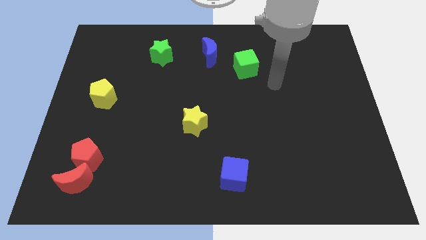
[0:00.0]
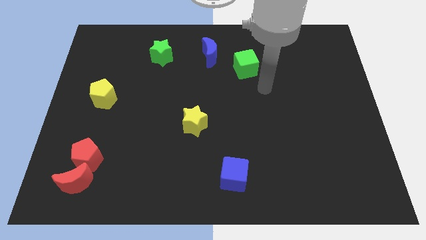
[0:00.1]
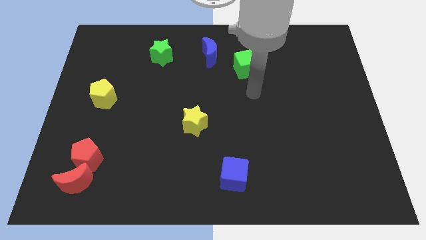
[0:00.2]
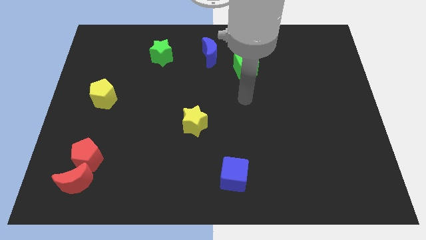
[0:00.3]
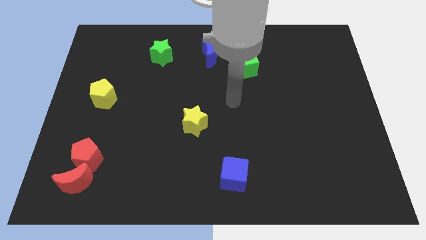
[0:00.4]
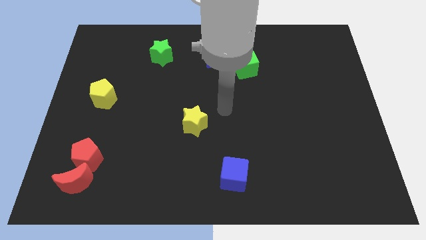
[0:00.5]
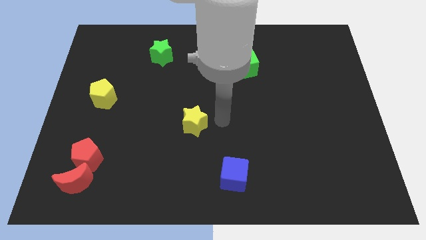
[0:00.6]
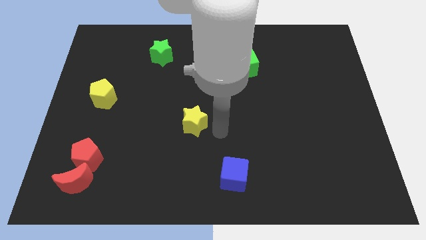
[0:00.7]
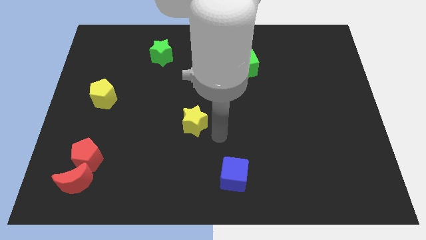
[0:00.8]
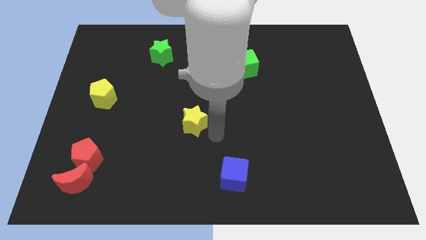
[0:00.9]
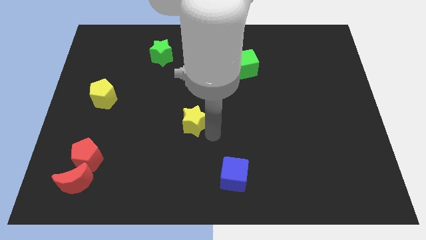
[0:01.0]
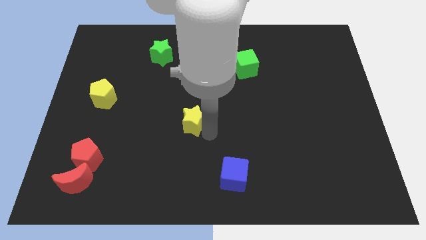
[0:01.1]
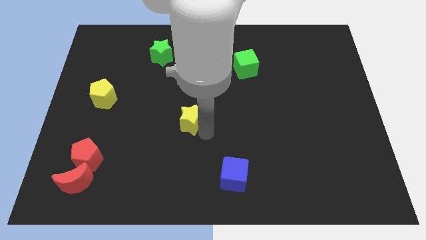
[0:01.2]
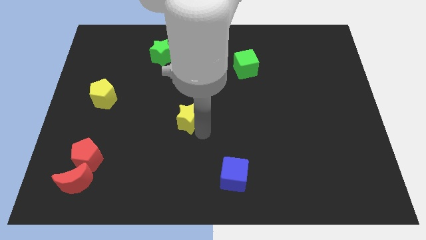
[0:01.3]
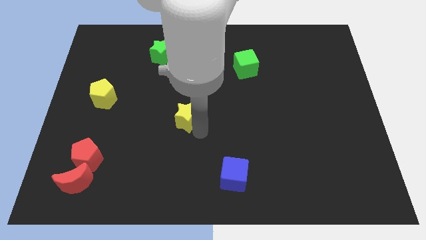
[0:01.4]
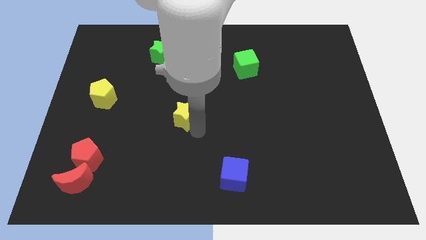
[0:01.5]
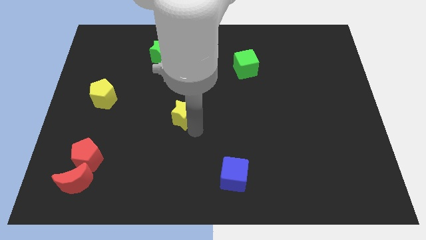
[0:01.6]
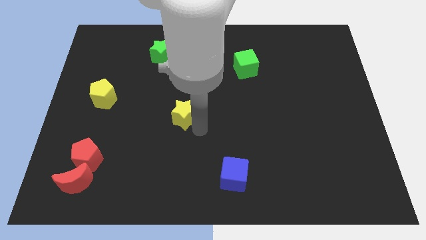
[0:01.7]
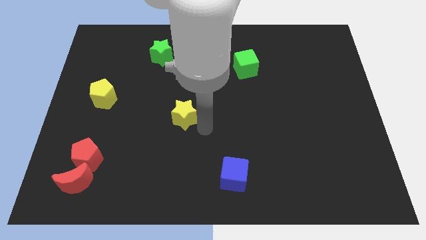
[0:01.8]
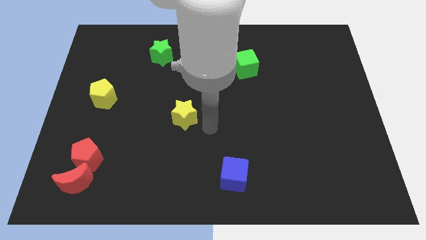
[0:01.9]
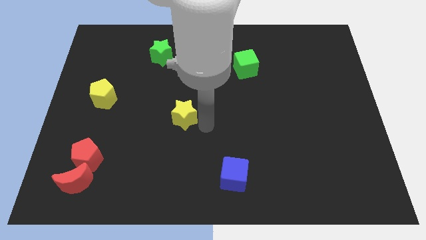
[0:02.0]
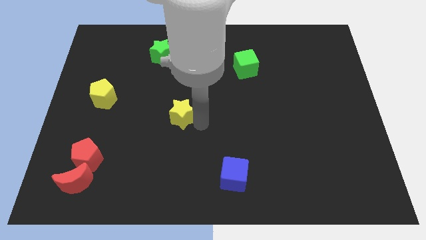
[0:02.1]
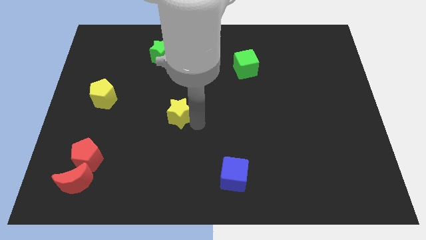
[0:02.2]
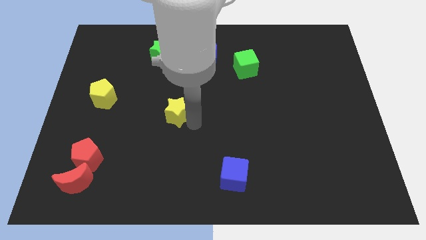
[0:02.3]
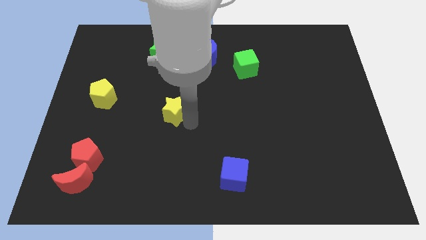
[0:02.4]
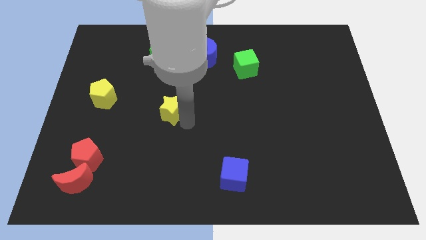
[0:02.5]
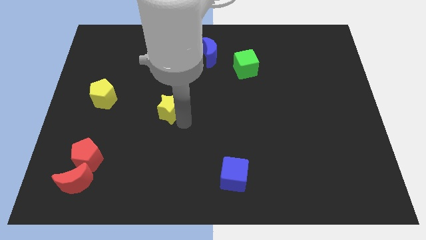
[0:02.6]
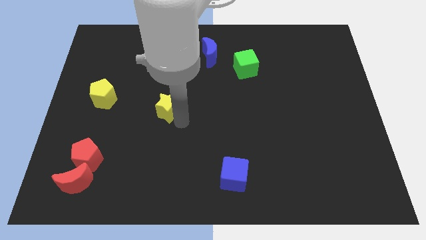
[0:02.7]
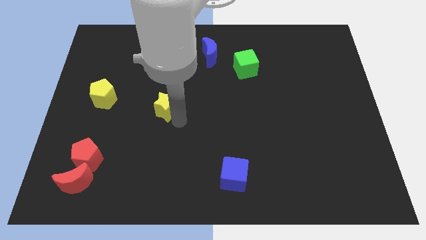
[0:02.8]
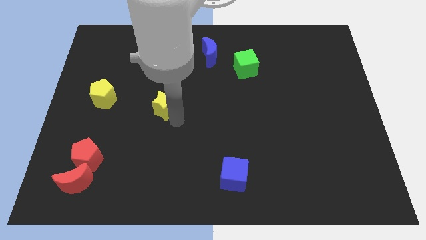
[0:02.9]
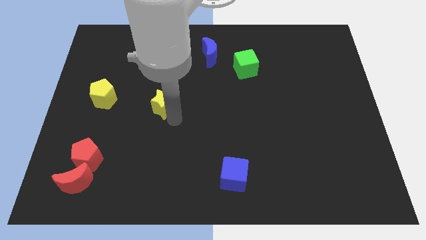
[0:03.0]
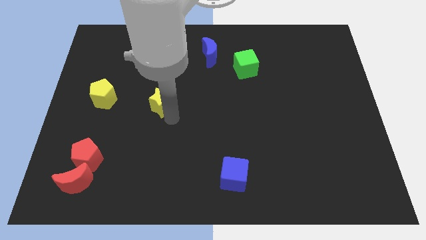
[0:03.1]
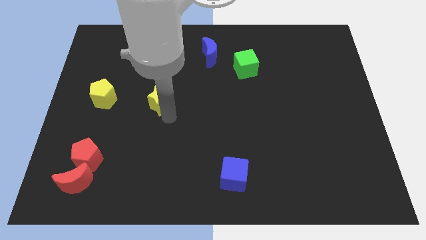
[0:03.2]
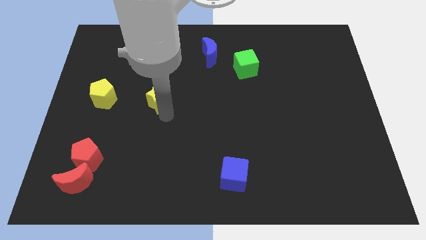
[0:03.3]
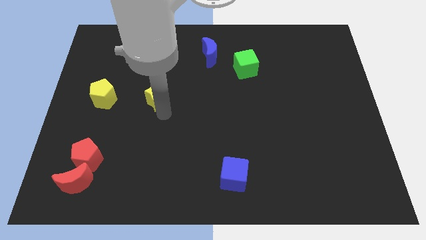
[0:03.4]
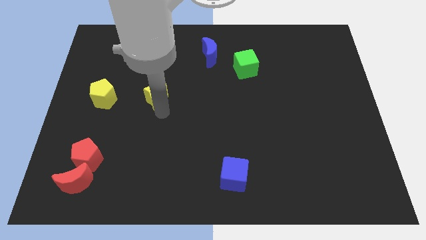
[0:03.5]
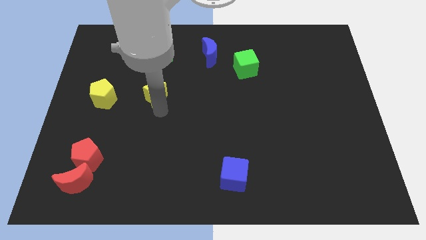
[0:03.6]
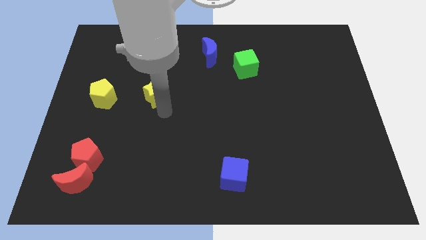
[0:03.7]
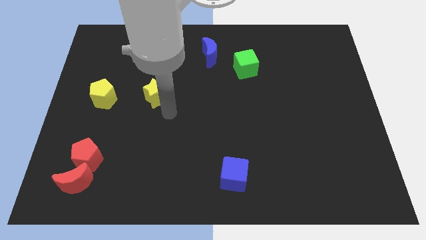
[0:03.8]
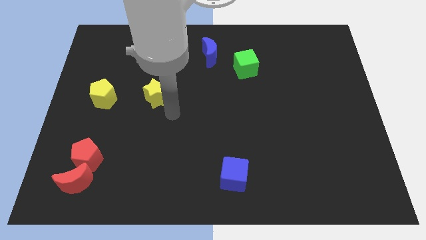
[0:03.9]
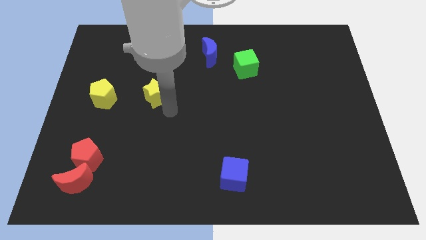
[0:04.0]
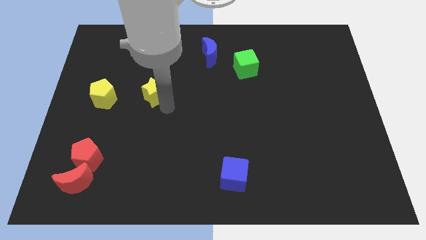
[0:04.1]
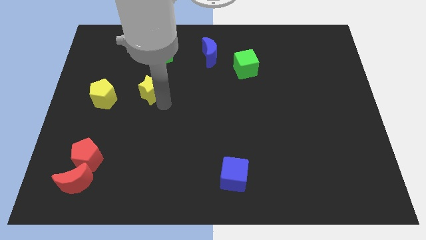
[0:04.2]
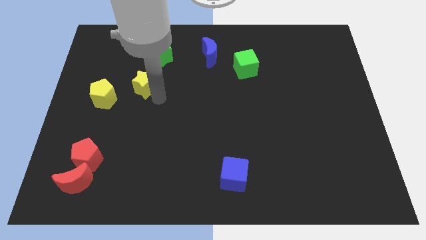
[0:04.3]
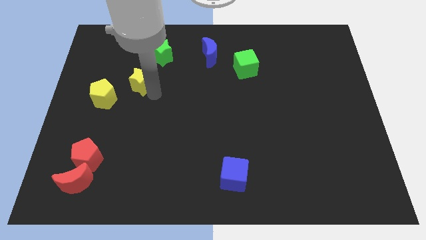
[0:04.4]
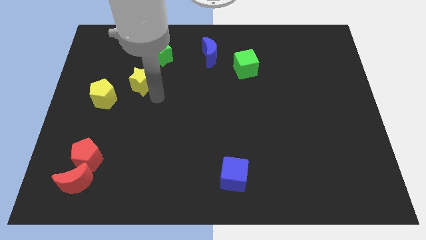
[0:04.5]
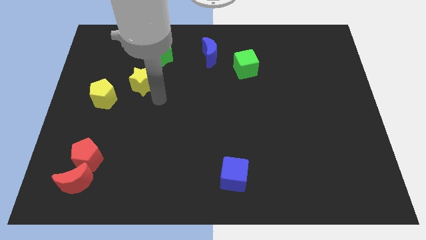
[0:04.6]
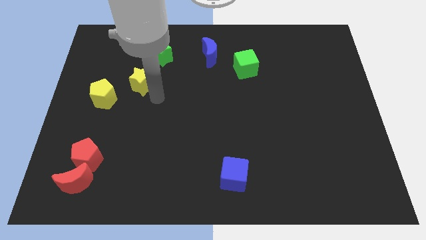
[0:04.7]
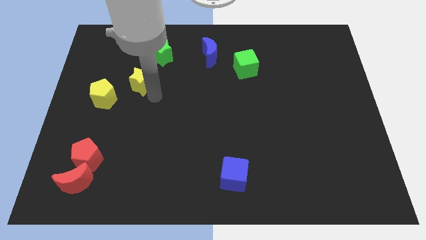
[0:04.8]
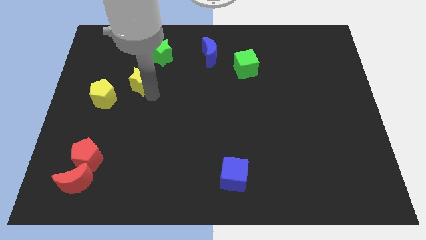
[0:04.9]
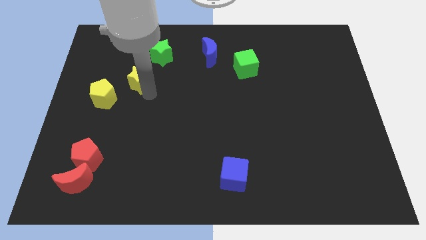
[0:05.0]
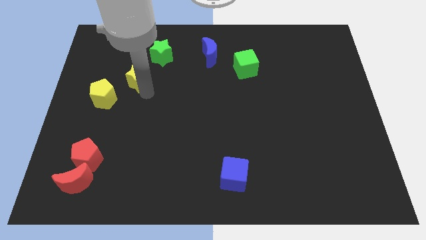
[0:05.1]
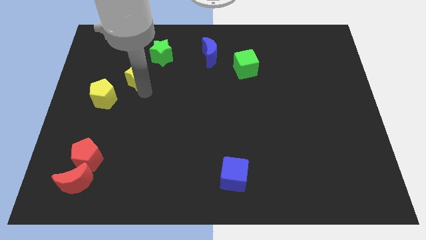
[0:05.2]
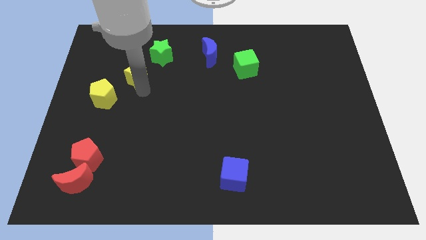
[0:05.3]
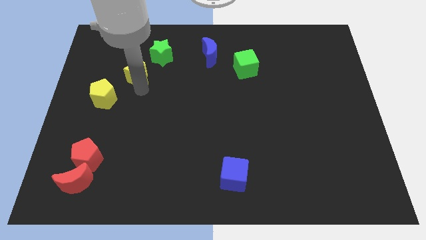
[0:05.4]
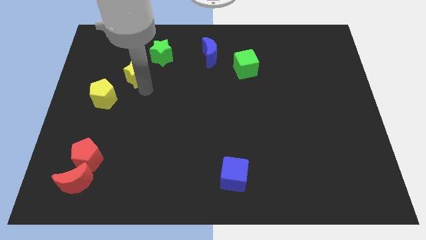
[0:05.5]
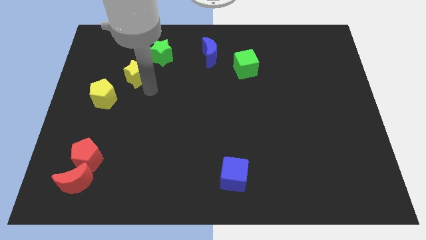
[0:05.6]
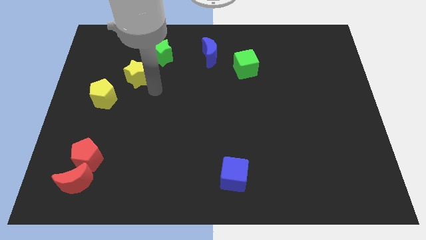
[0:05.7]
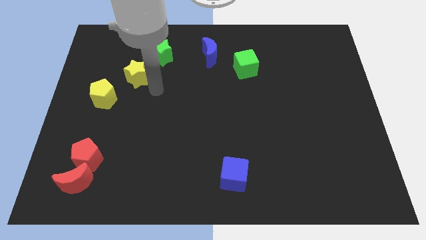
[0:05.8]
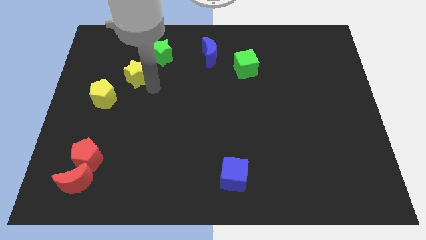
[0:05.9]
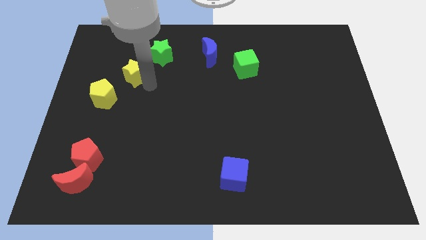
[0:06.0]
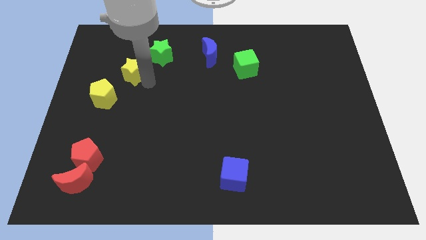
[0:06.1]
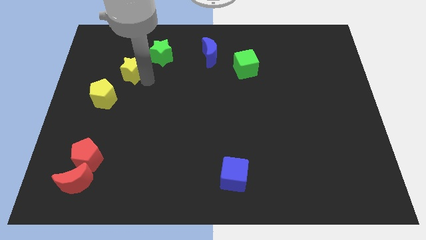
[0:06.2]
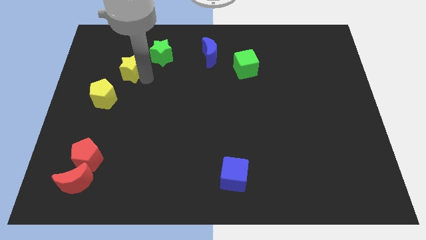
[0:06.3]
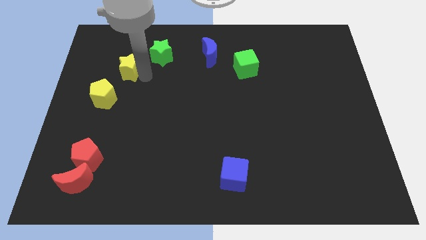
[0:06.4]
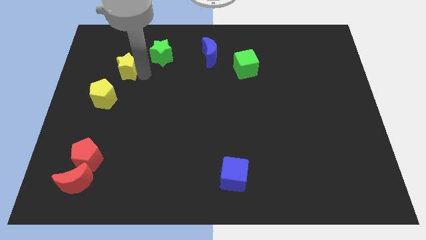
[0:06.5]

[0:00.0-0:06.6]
slide the yellow star to the top of the yellow pentagon
